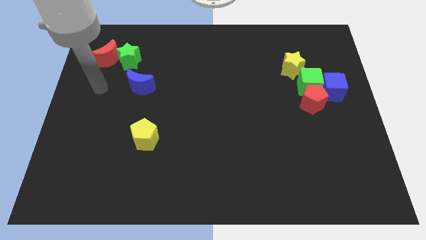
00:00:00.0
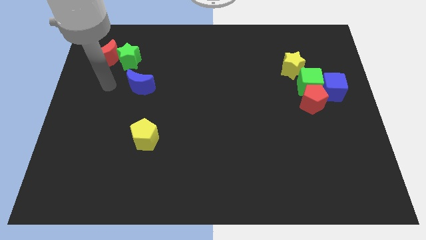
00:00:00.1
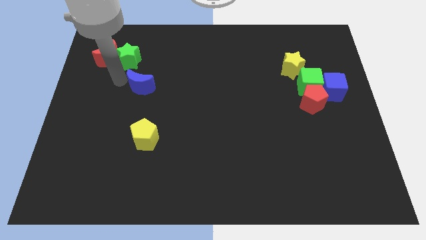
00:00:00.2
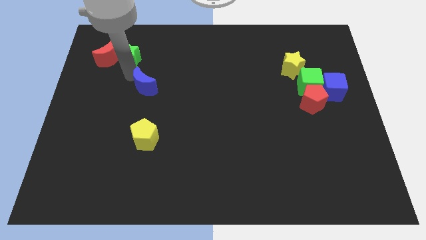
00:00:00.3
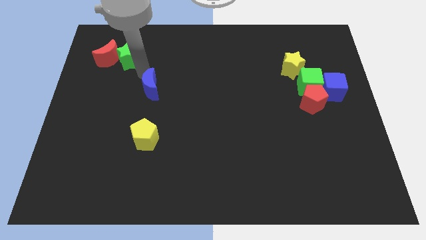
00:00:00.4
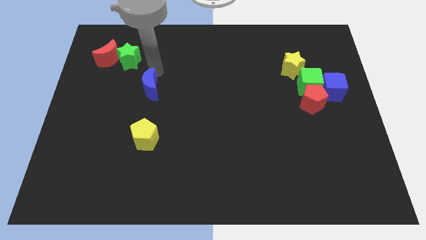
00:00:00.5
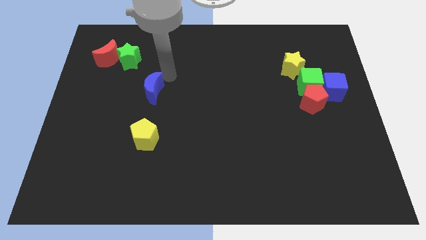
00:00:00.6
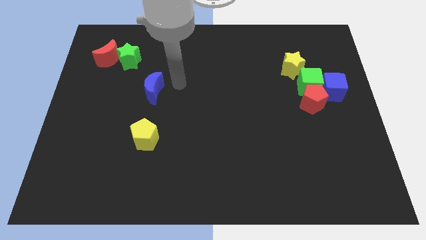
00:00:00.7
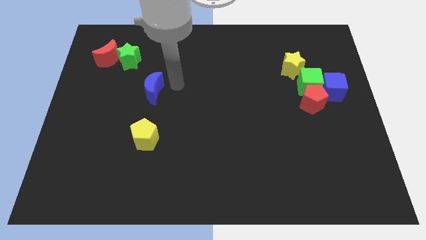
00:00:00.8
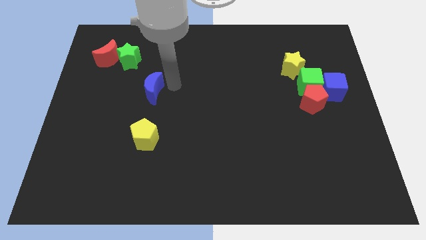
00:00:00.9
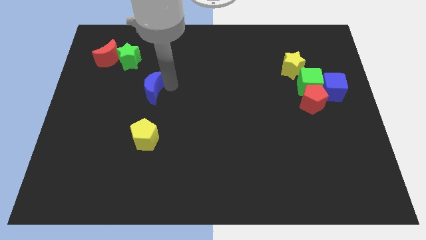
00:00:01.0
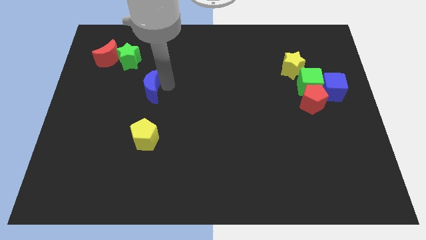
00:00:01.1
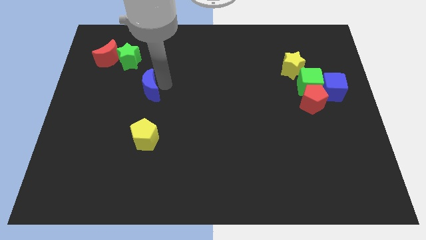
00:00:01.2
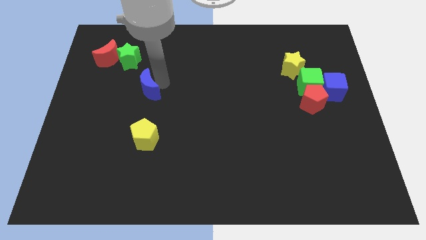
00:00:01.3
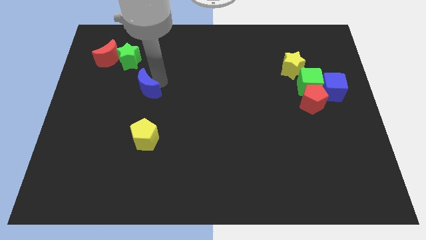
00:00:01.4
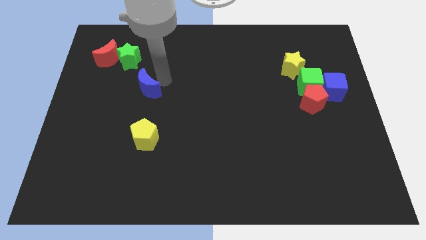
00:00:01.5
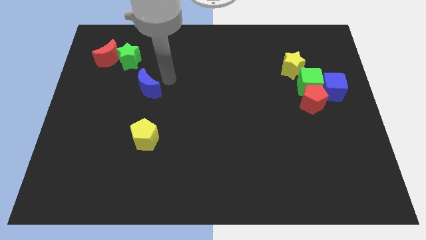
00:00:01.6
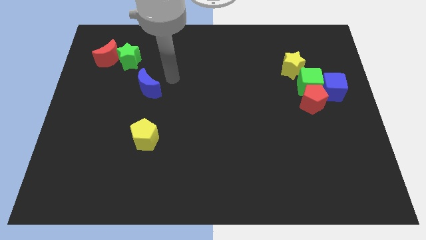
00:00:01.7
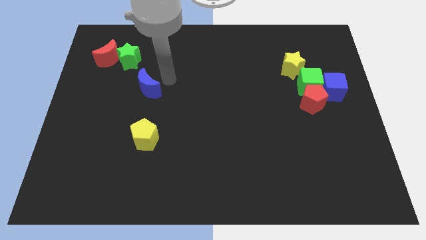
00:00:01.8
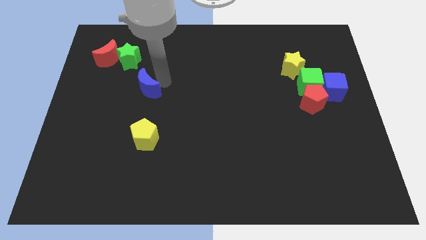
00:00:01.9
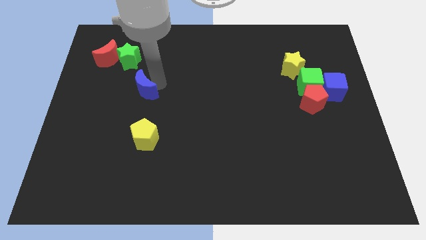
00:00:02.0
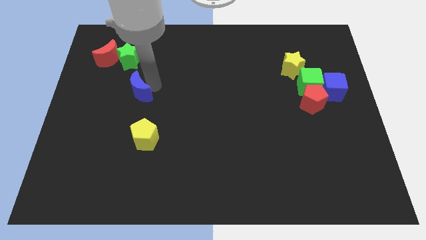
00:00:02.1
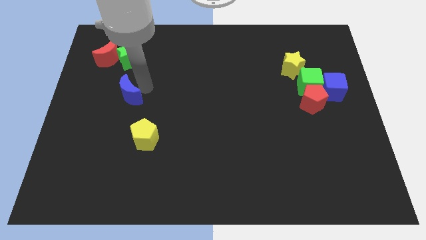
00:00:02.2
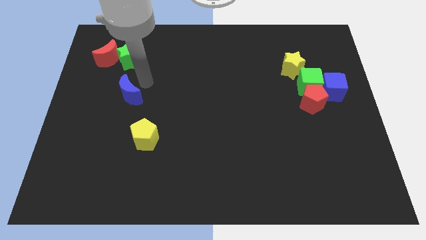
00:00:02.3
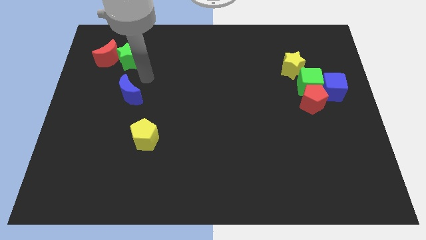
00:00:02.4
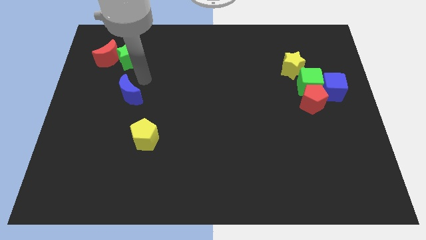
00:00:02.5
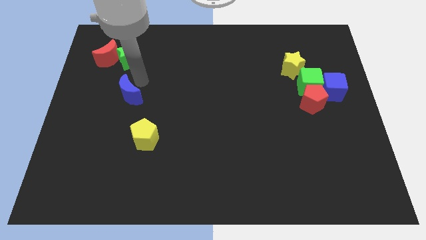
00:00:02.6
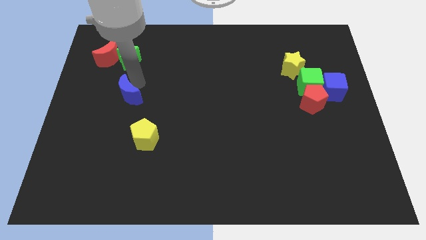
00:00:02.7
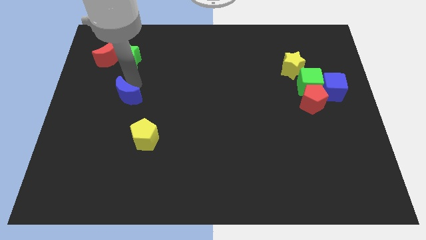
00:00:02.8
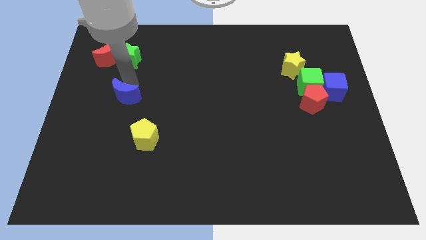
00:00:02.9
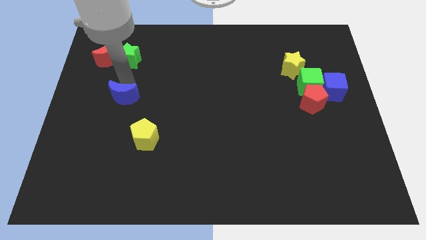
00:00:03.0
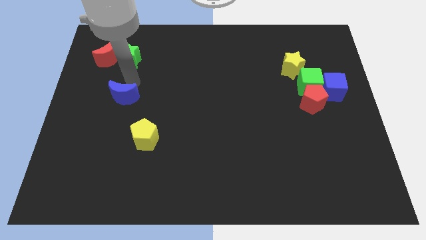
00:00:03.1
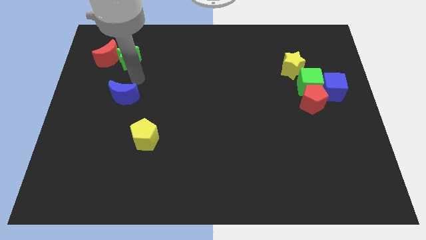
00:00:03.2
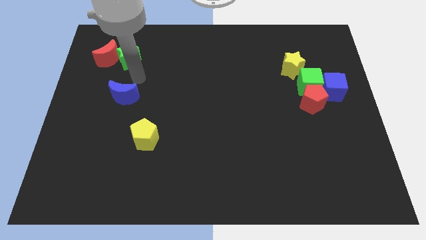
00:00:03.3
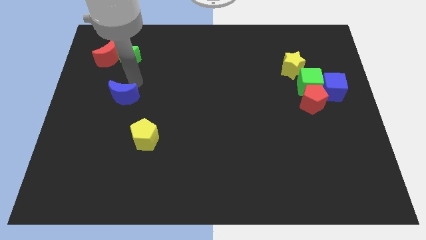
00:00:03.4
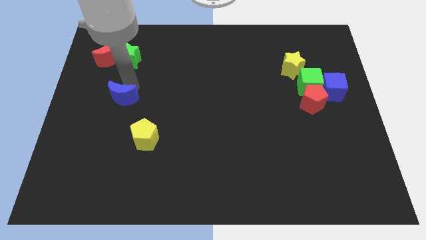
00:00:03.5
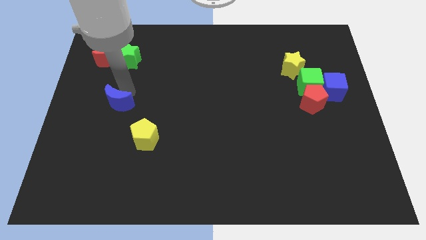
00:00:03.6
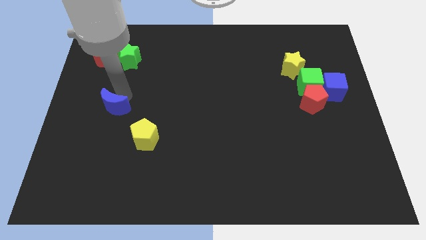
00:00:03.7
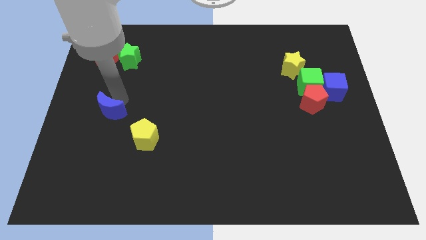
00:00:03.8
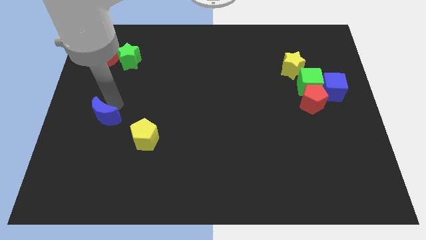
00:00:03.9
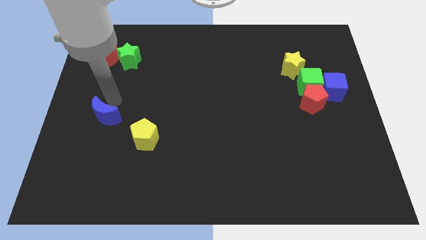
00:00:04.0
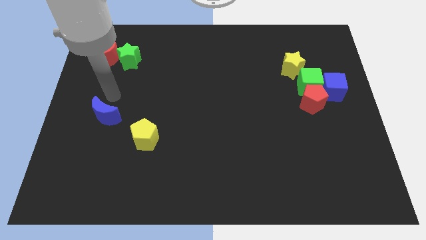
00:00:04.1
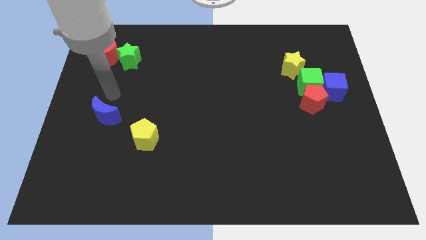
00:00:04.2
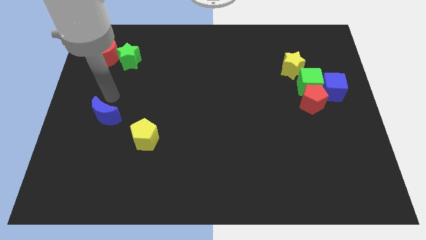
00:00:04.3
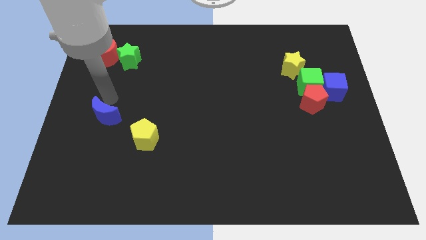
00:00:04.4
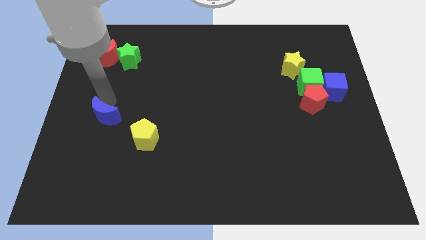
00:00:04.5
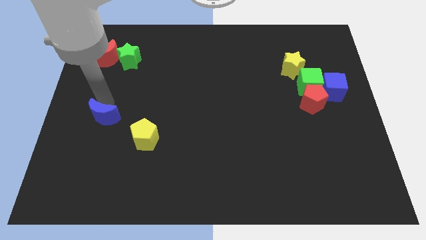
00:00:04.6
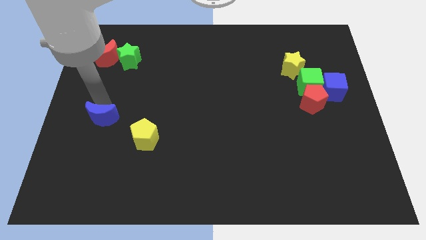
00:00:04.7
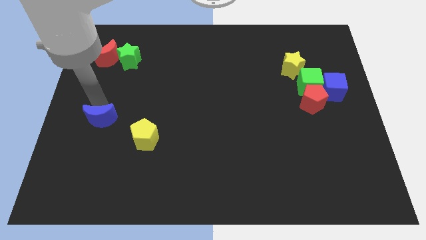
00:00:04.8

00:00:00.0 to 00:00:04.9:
put the blue moon left of the yellow pentagon

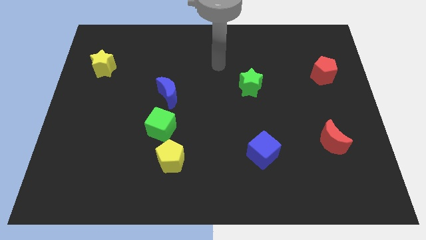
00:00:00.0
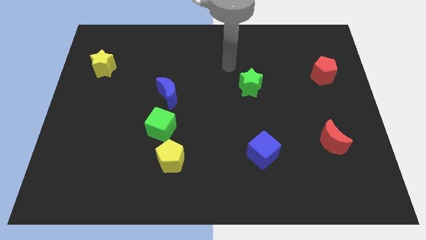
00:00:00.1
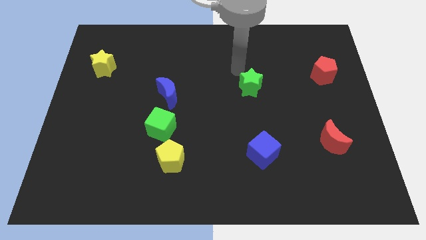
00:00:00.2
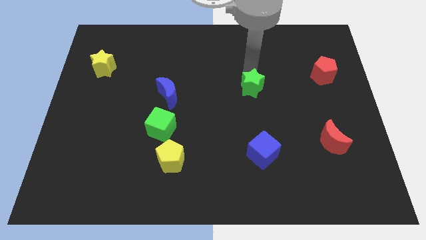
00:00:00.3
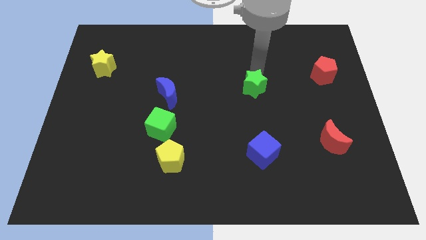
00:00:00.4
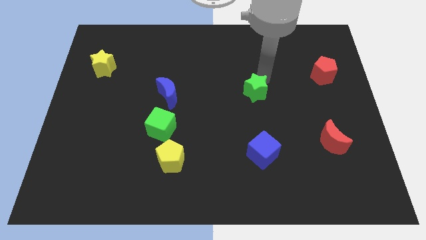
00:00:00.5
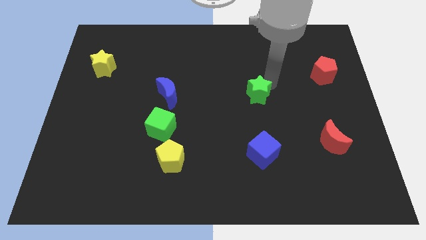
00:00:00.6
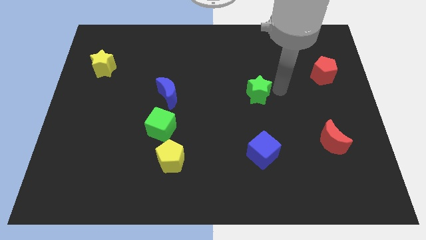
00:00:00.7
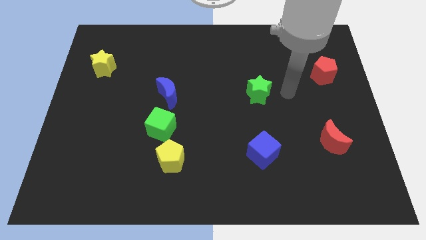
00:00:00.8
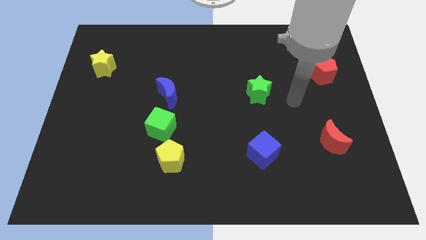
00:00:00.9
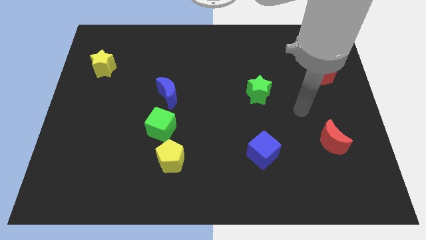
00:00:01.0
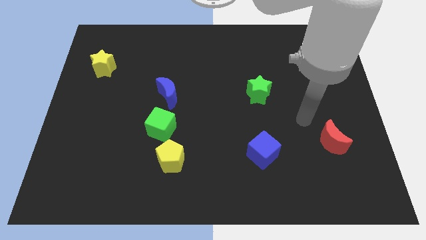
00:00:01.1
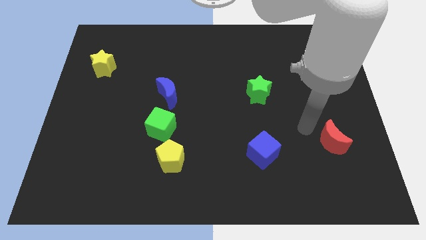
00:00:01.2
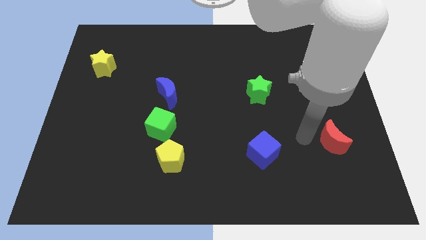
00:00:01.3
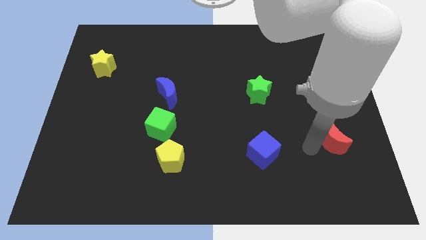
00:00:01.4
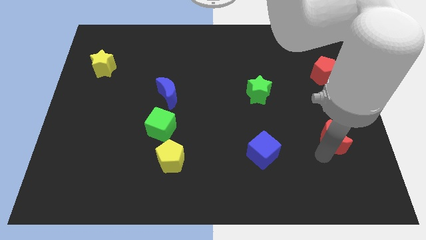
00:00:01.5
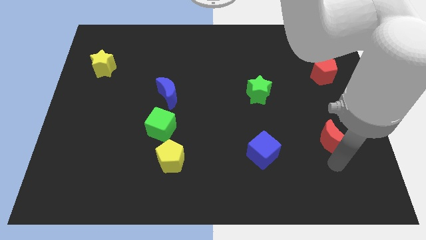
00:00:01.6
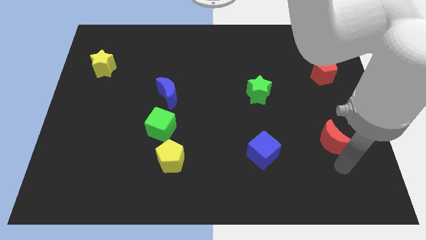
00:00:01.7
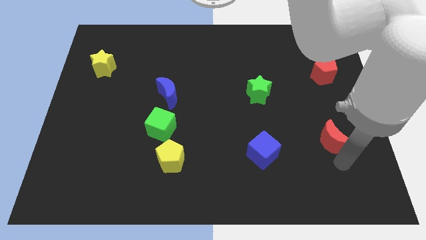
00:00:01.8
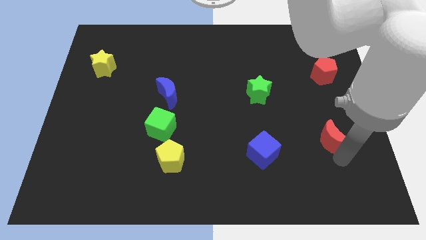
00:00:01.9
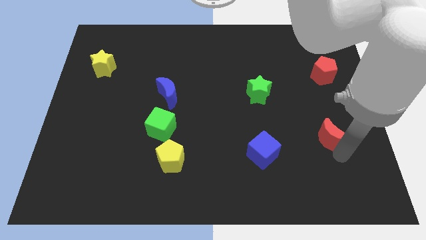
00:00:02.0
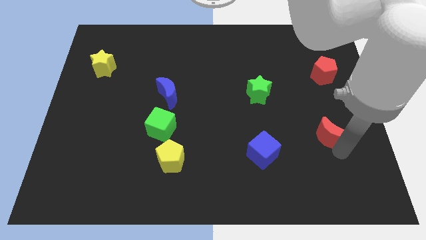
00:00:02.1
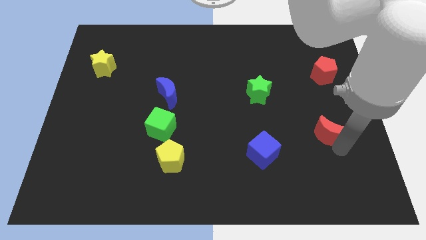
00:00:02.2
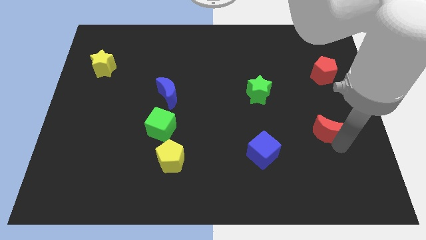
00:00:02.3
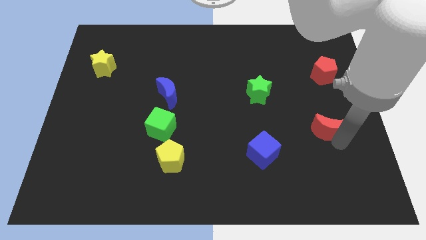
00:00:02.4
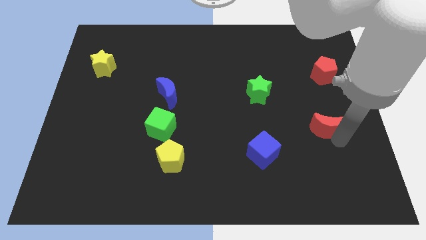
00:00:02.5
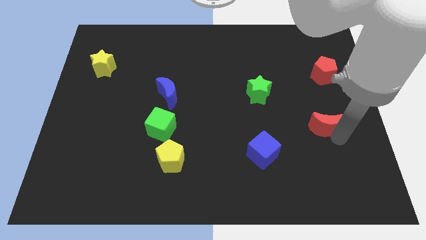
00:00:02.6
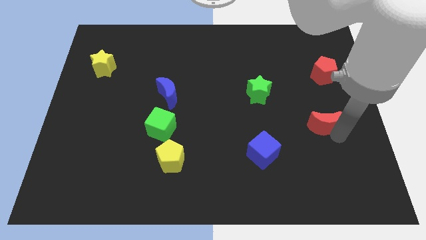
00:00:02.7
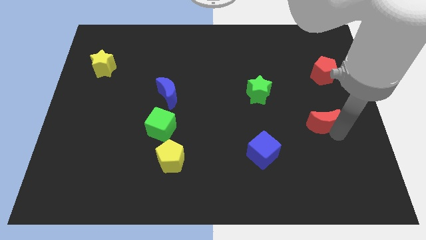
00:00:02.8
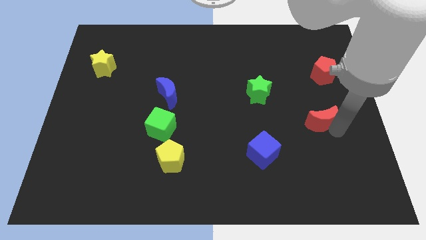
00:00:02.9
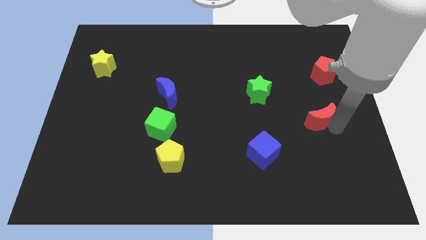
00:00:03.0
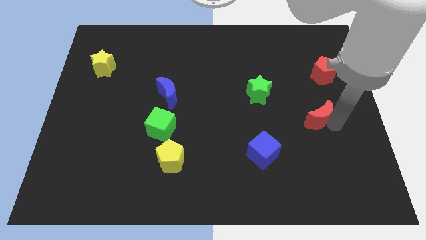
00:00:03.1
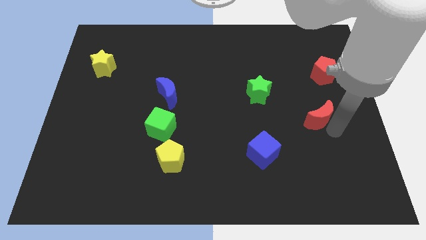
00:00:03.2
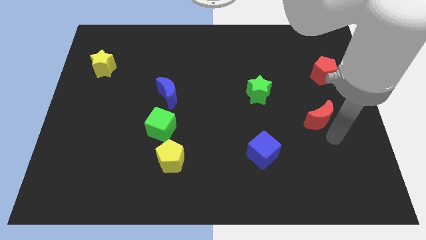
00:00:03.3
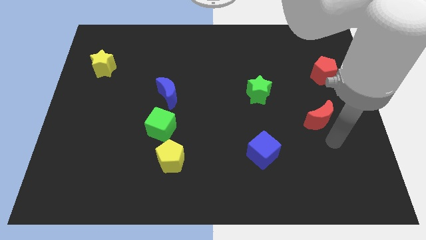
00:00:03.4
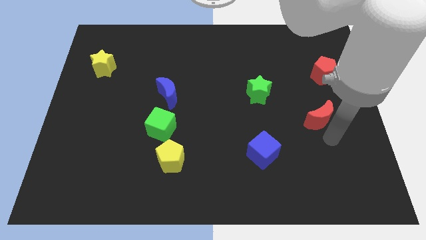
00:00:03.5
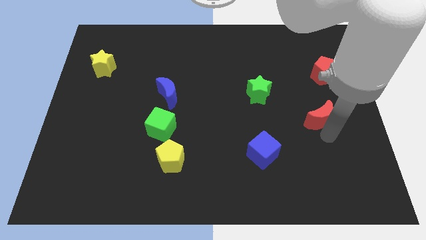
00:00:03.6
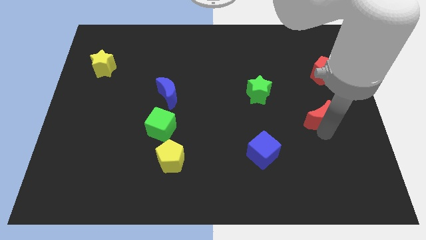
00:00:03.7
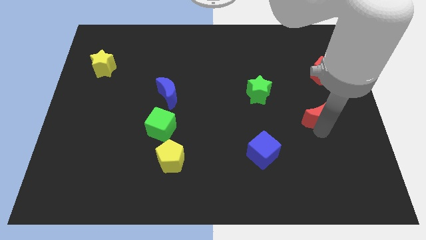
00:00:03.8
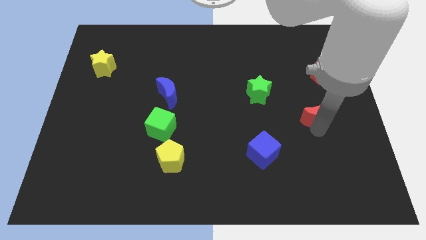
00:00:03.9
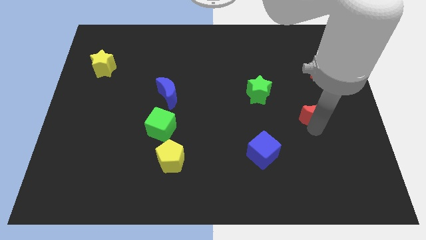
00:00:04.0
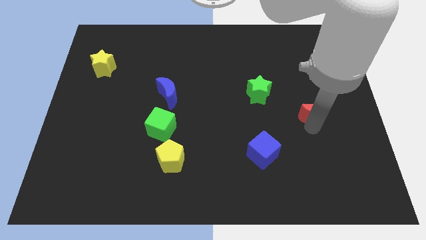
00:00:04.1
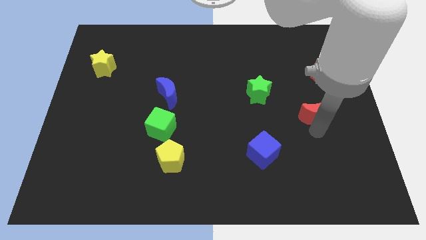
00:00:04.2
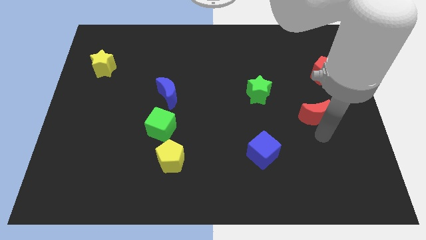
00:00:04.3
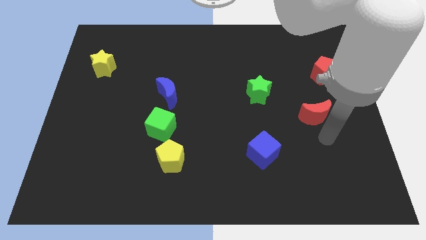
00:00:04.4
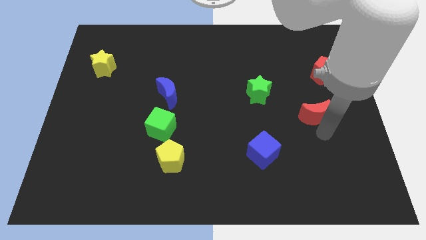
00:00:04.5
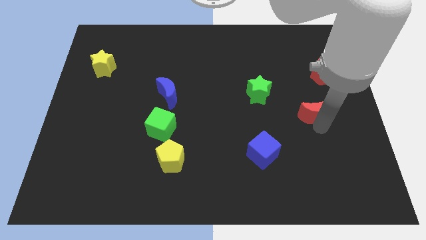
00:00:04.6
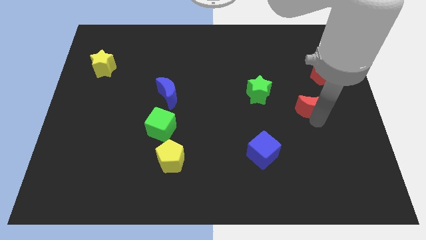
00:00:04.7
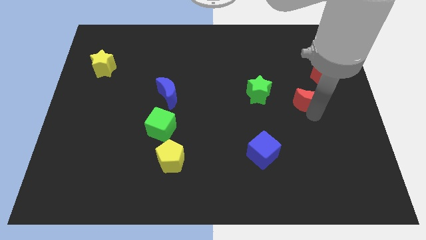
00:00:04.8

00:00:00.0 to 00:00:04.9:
put the red moon just right of the green star
